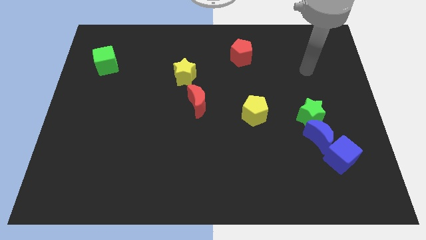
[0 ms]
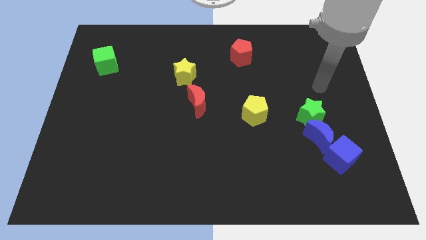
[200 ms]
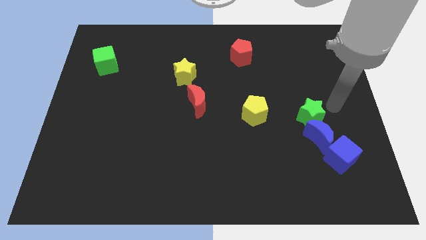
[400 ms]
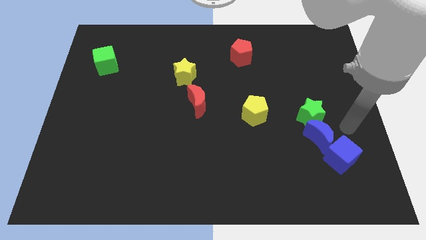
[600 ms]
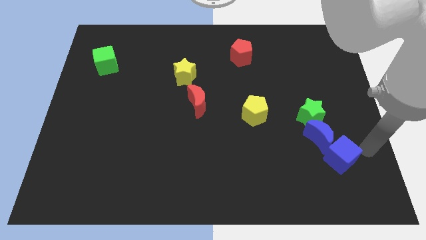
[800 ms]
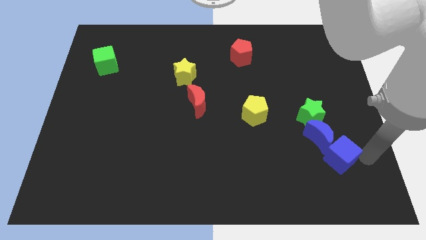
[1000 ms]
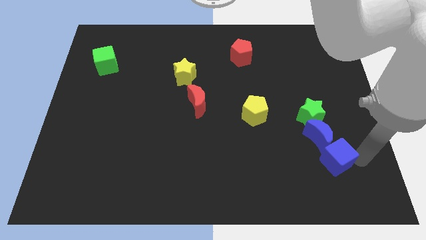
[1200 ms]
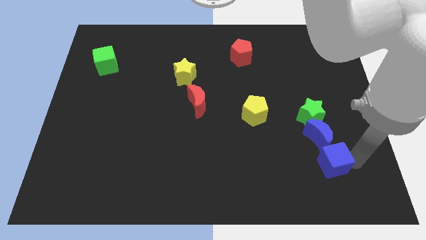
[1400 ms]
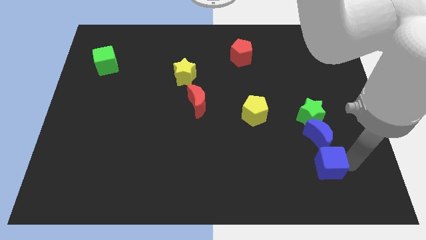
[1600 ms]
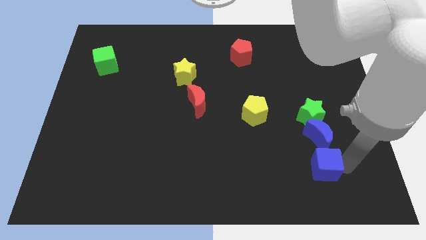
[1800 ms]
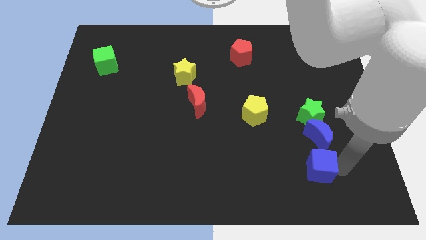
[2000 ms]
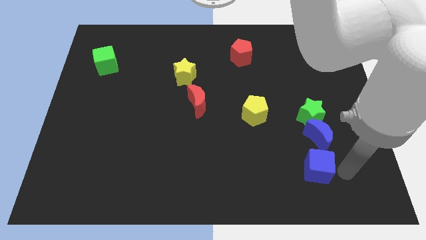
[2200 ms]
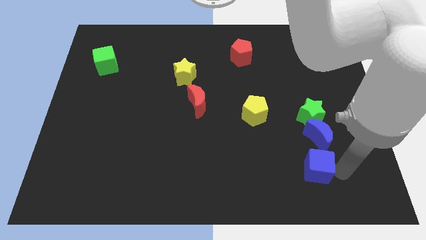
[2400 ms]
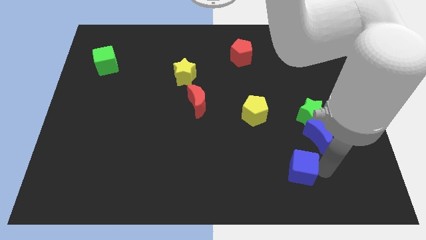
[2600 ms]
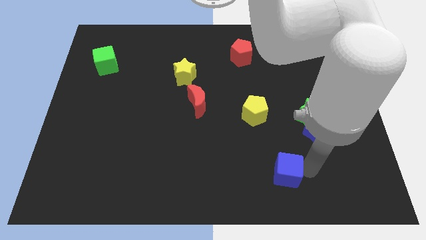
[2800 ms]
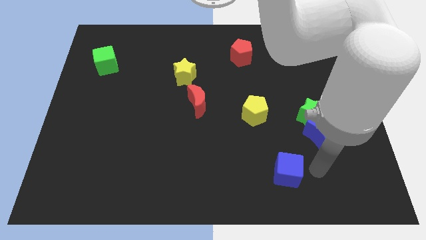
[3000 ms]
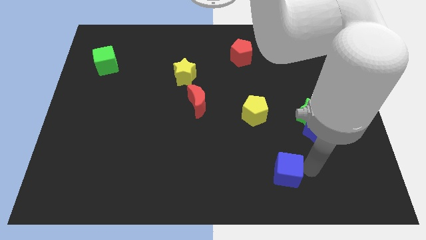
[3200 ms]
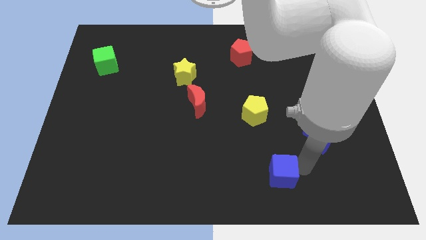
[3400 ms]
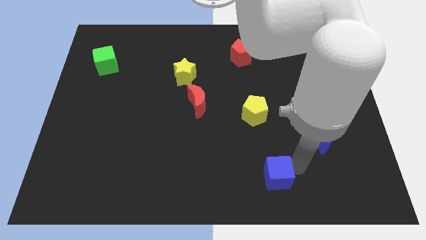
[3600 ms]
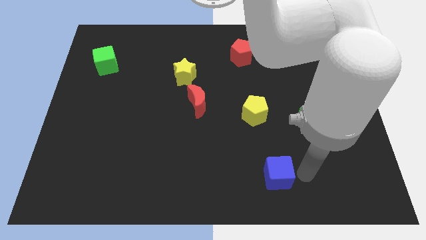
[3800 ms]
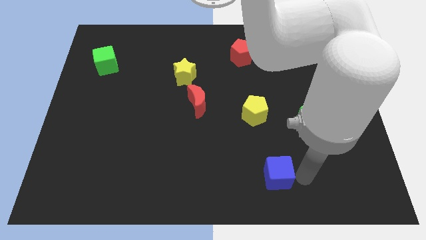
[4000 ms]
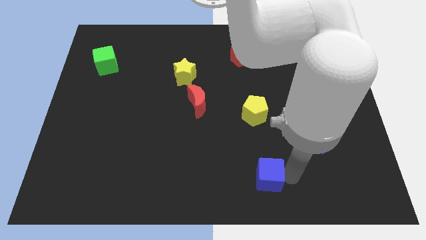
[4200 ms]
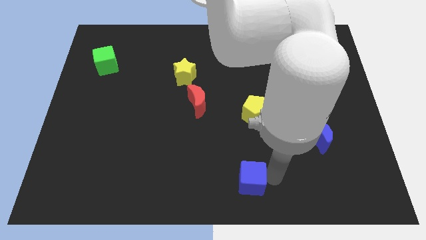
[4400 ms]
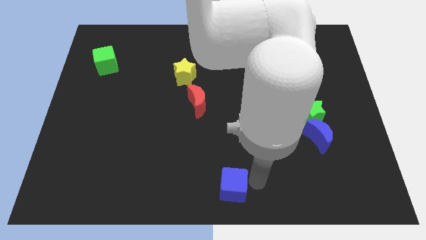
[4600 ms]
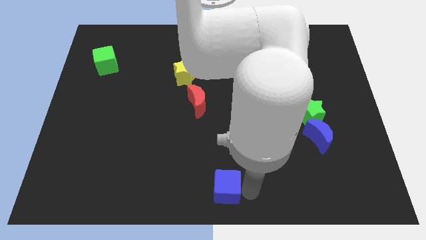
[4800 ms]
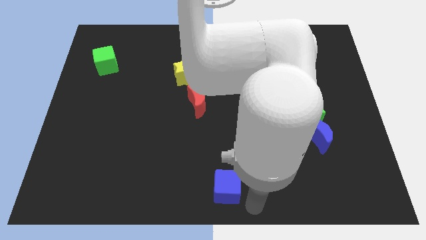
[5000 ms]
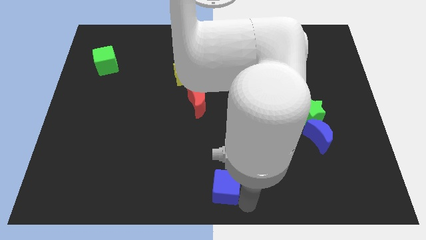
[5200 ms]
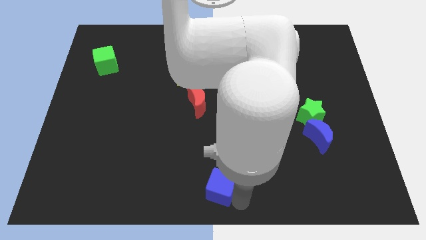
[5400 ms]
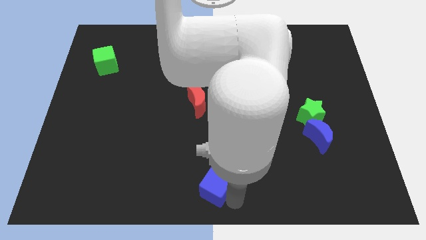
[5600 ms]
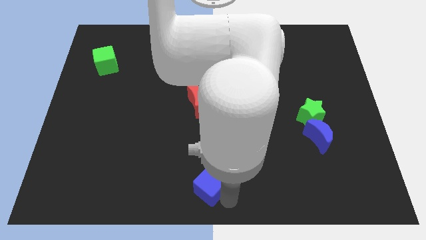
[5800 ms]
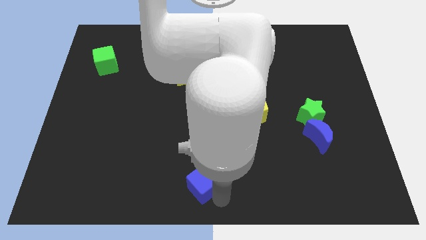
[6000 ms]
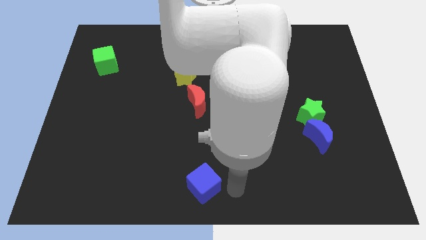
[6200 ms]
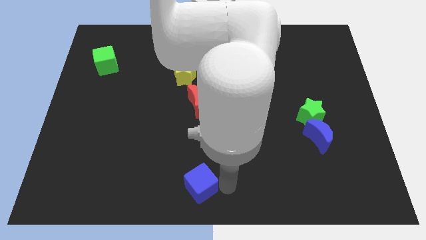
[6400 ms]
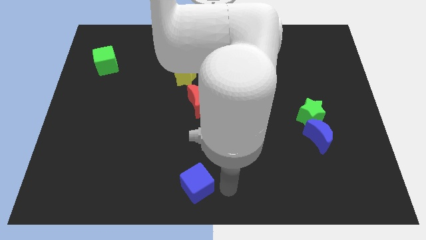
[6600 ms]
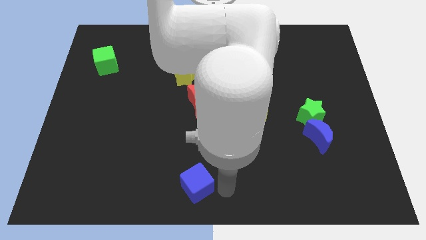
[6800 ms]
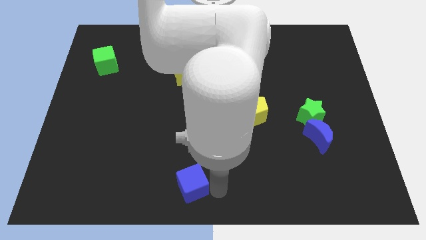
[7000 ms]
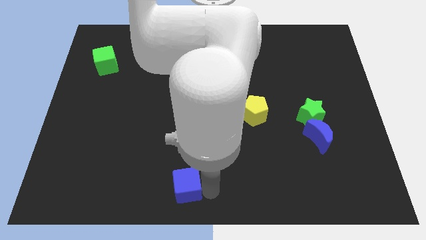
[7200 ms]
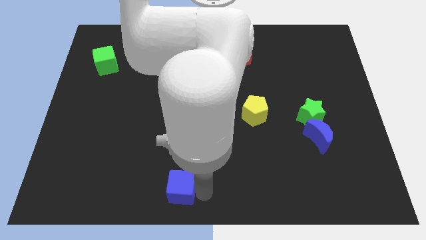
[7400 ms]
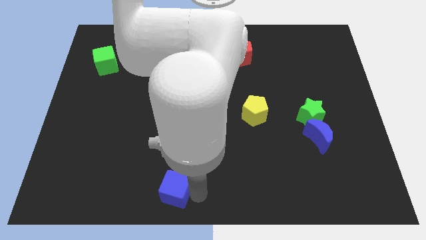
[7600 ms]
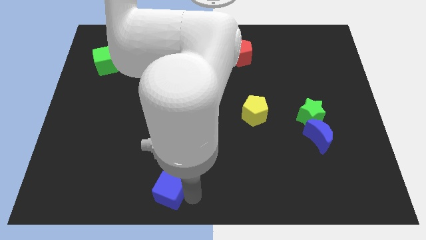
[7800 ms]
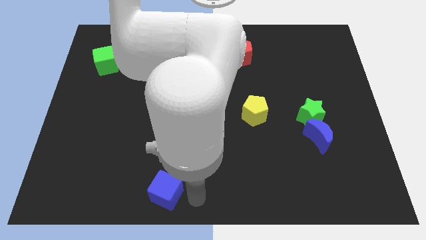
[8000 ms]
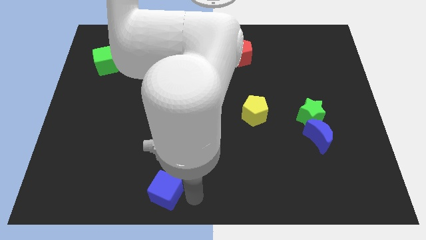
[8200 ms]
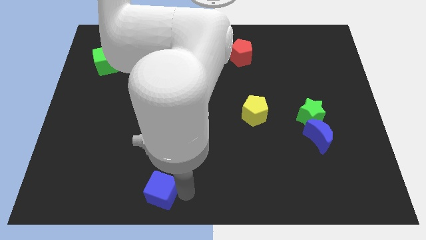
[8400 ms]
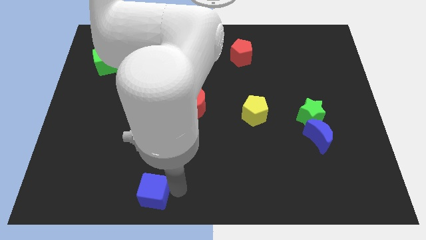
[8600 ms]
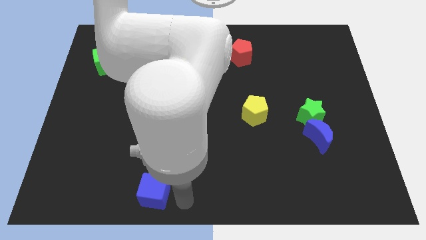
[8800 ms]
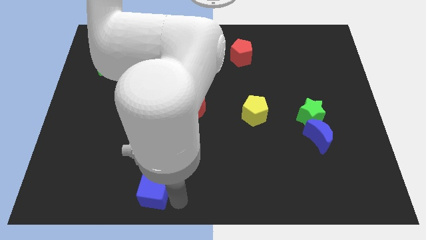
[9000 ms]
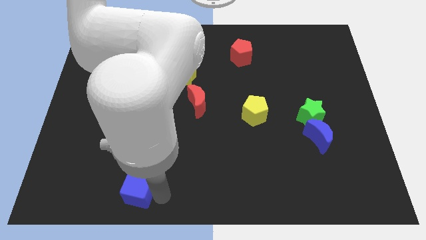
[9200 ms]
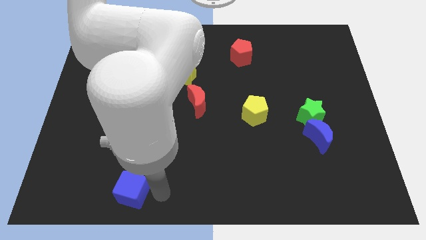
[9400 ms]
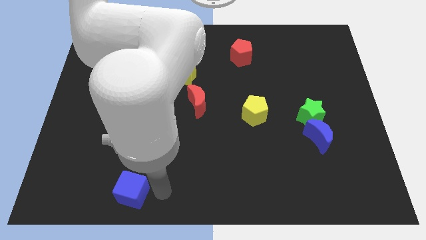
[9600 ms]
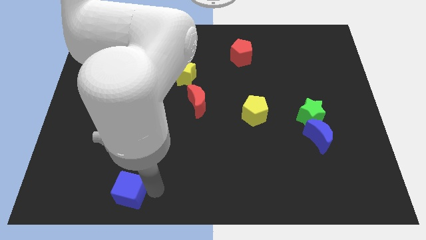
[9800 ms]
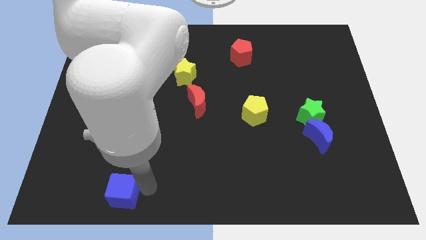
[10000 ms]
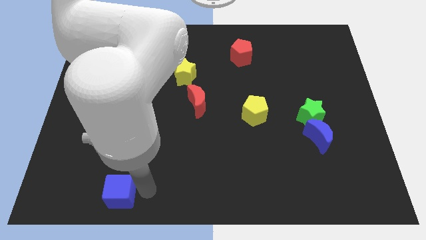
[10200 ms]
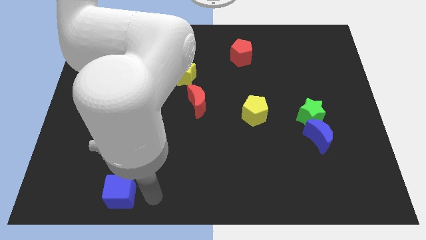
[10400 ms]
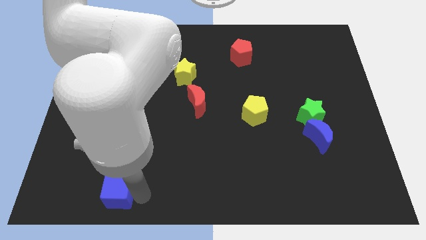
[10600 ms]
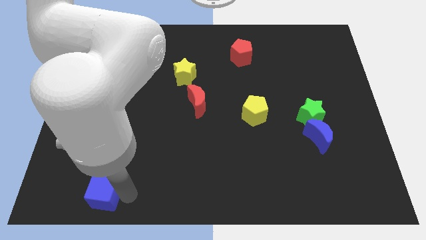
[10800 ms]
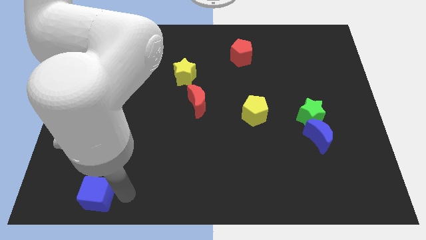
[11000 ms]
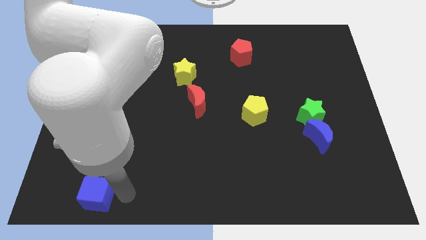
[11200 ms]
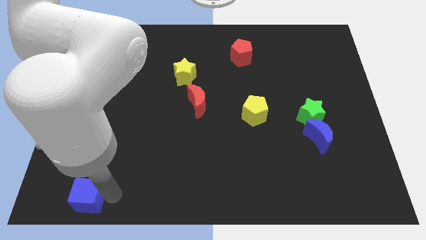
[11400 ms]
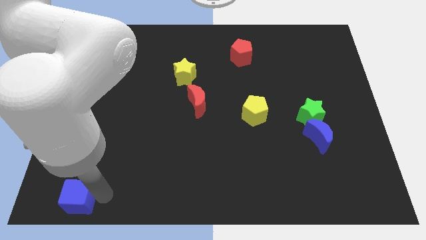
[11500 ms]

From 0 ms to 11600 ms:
put the blue cube to the bottom left of the board
